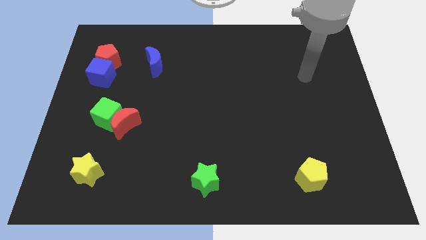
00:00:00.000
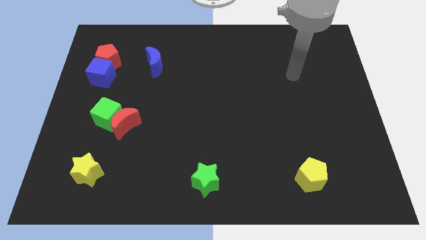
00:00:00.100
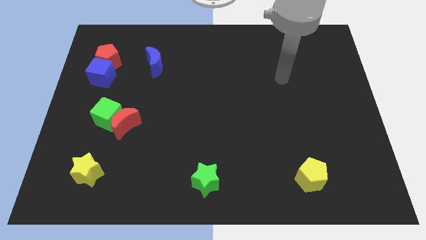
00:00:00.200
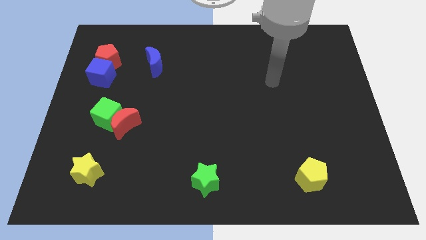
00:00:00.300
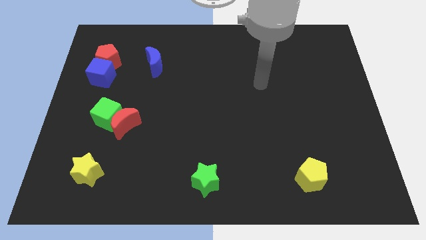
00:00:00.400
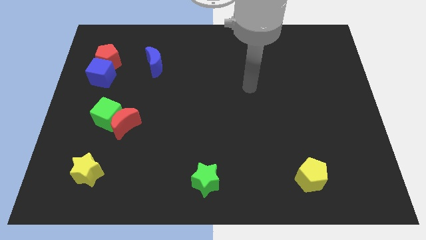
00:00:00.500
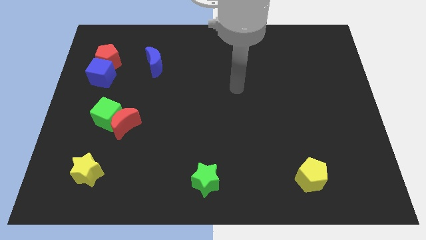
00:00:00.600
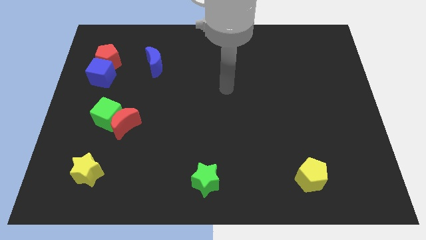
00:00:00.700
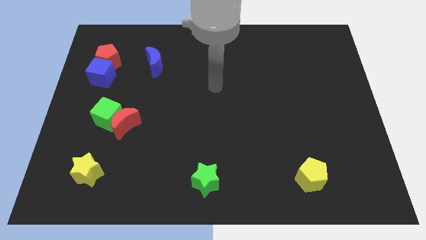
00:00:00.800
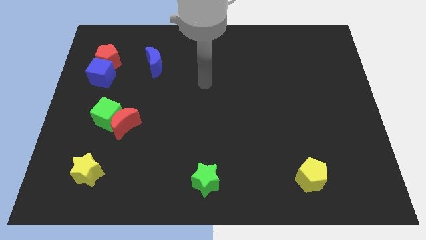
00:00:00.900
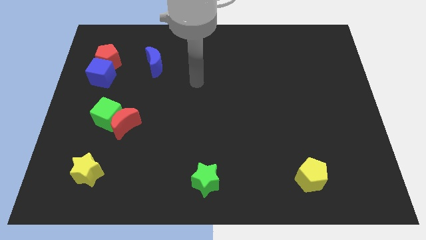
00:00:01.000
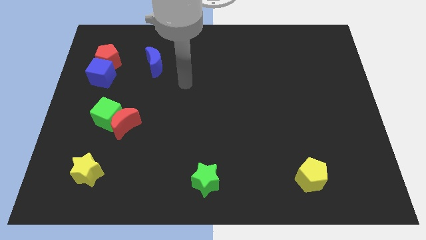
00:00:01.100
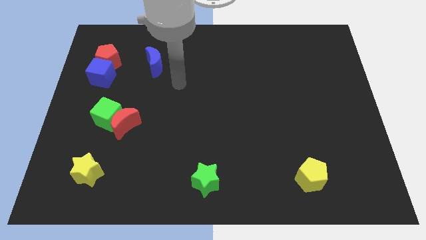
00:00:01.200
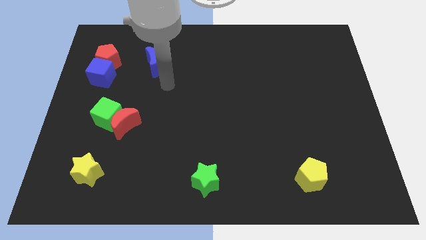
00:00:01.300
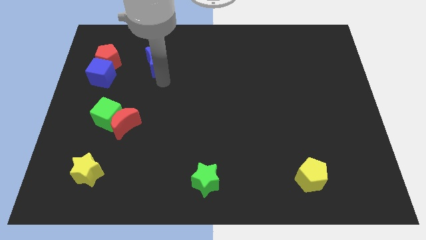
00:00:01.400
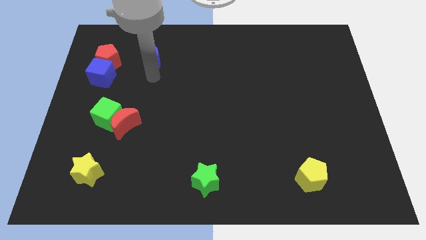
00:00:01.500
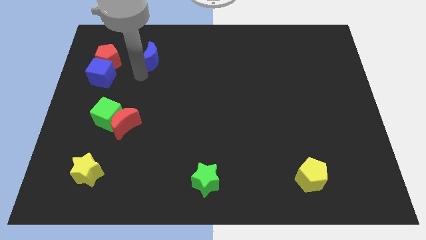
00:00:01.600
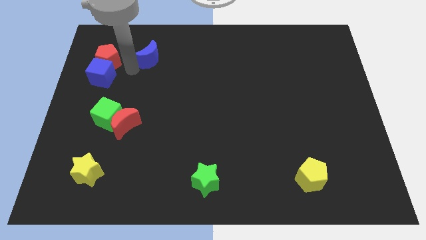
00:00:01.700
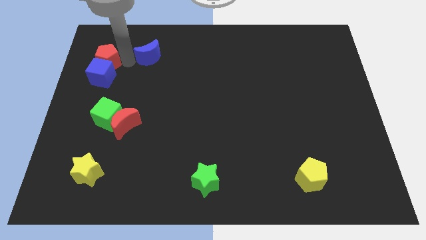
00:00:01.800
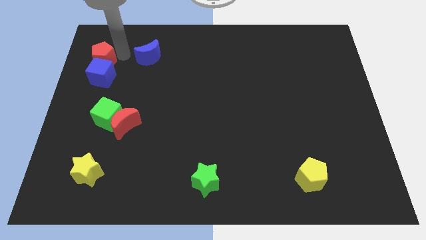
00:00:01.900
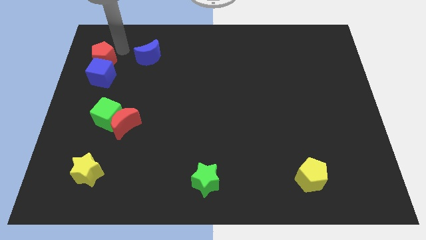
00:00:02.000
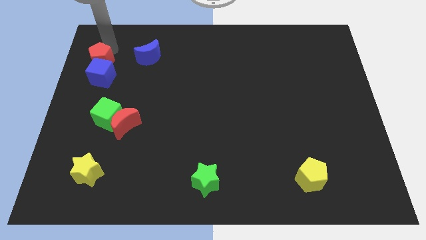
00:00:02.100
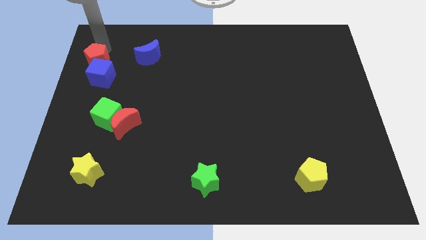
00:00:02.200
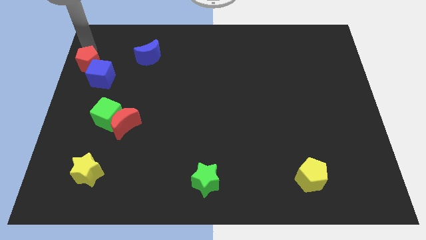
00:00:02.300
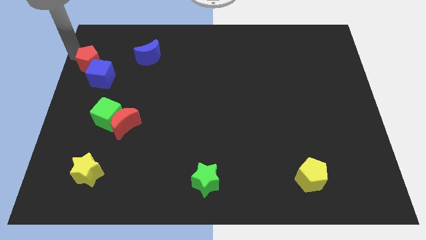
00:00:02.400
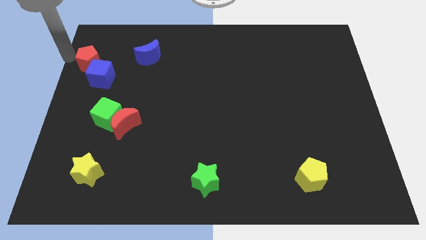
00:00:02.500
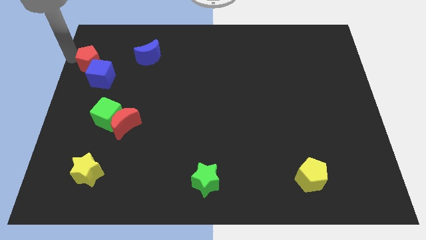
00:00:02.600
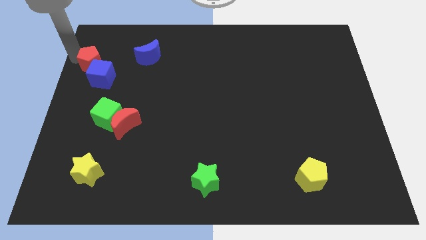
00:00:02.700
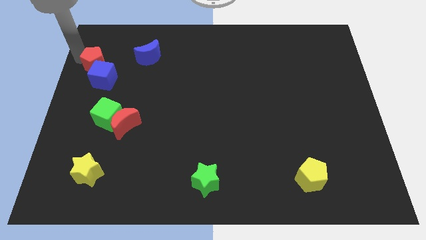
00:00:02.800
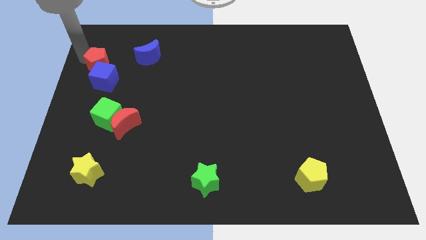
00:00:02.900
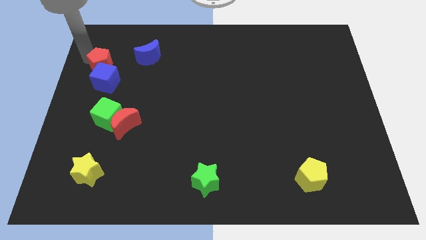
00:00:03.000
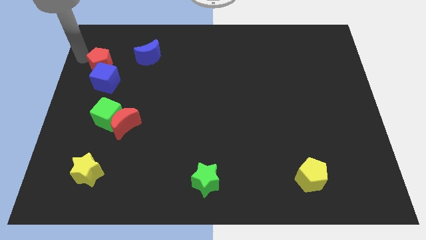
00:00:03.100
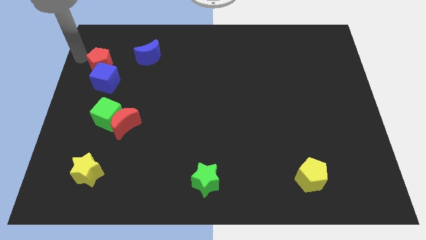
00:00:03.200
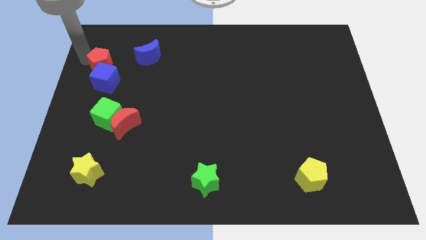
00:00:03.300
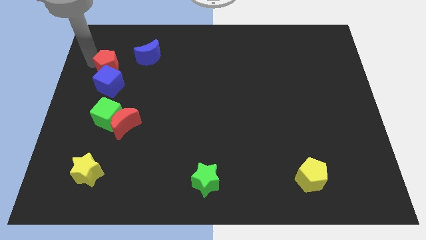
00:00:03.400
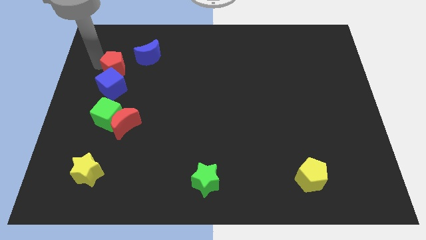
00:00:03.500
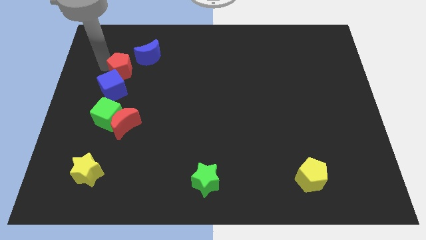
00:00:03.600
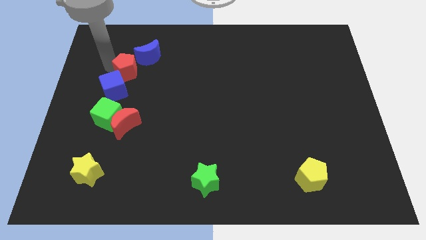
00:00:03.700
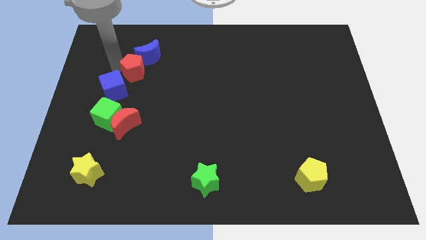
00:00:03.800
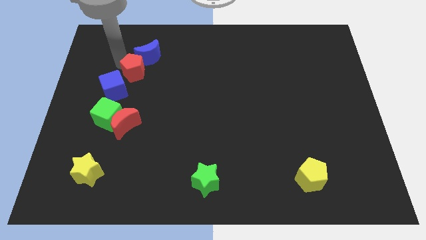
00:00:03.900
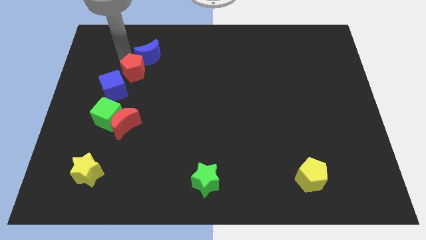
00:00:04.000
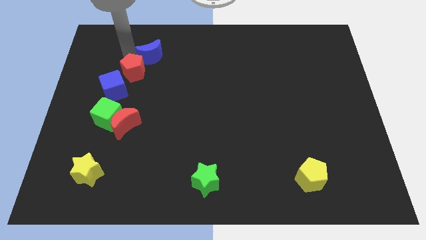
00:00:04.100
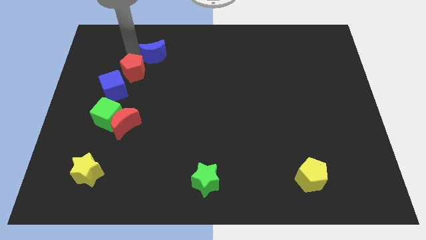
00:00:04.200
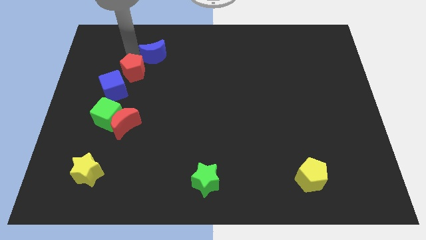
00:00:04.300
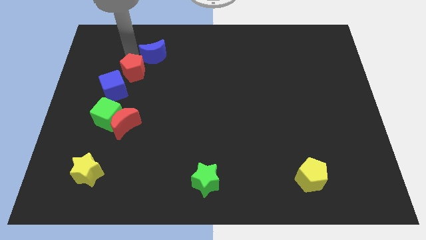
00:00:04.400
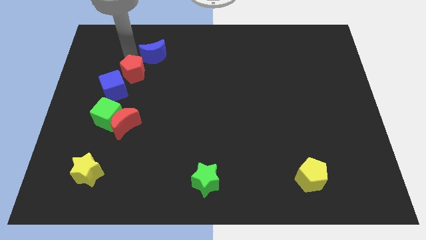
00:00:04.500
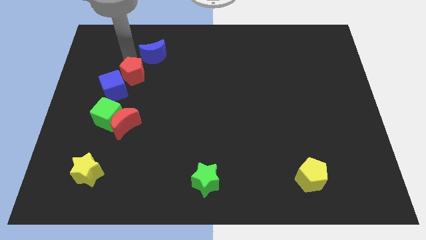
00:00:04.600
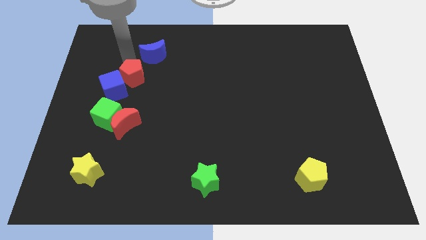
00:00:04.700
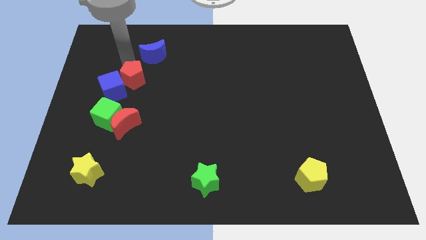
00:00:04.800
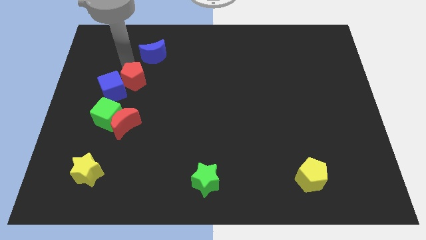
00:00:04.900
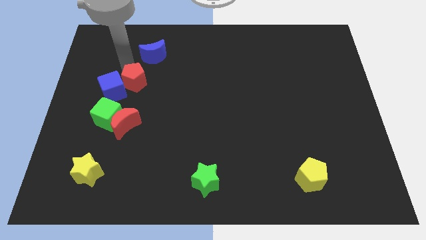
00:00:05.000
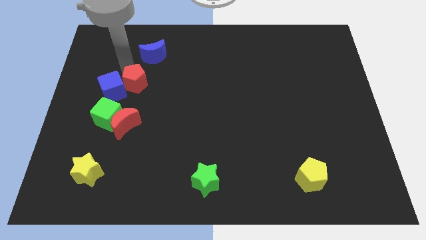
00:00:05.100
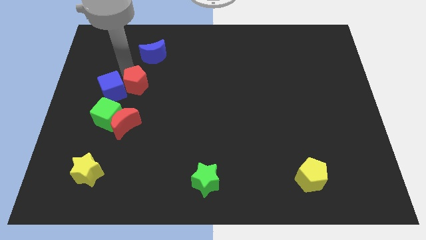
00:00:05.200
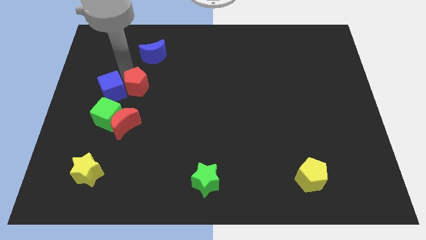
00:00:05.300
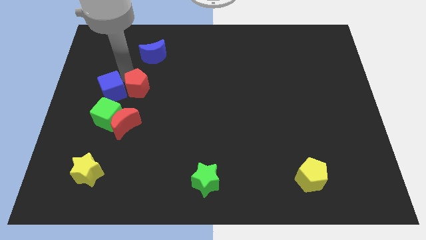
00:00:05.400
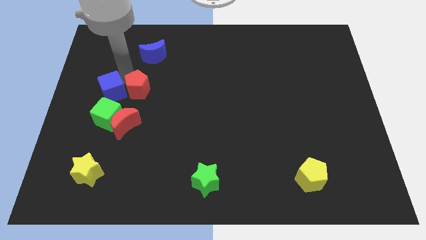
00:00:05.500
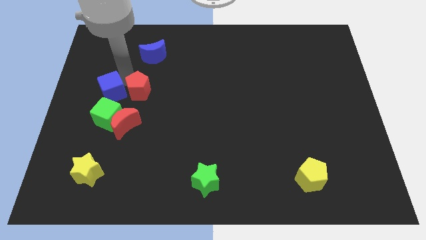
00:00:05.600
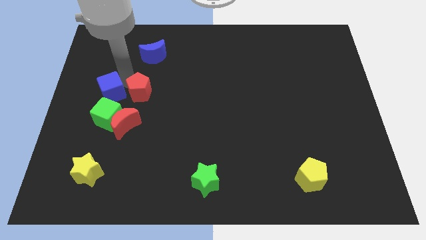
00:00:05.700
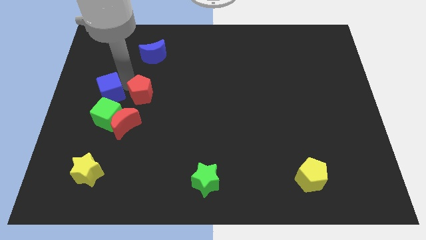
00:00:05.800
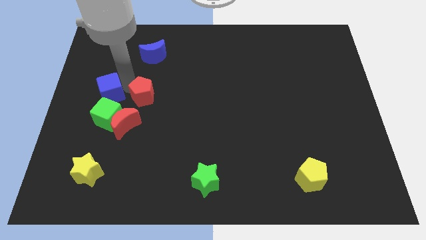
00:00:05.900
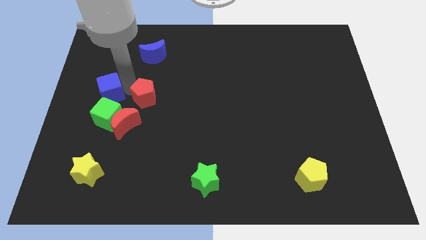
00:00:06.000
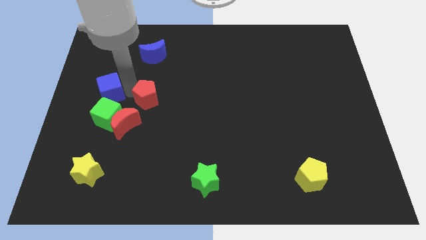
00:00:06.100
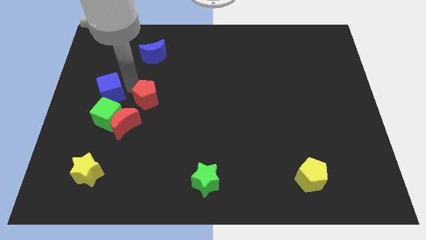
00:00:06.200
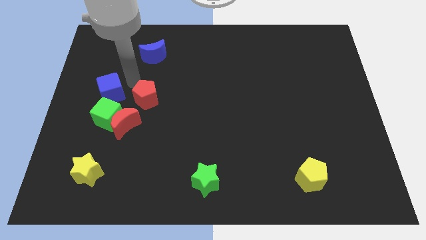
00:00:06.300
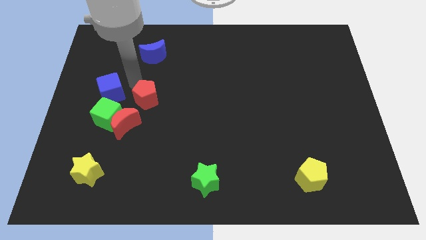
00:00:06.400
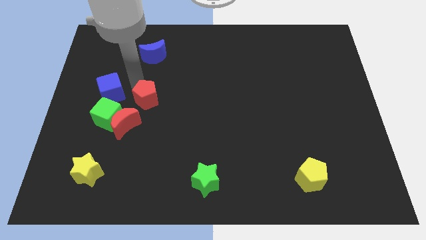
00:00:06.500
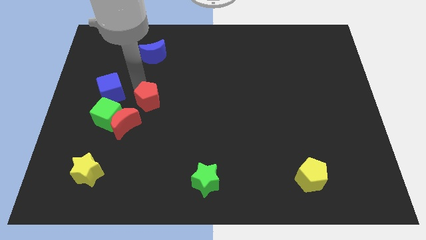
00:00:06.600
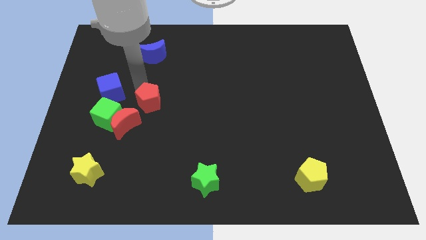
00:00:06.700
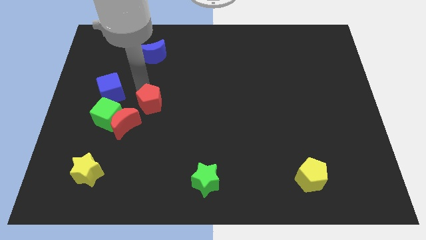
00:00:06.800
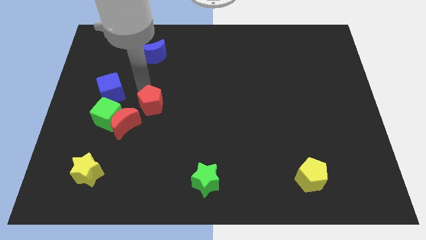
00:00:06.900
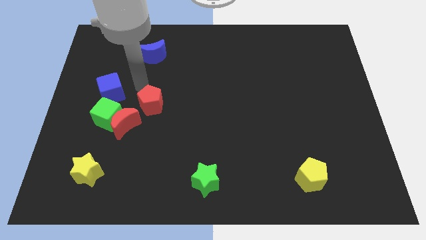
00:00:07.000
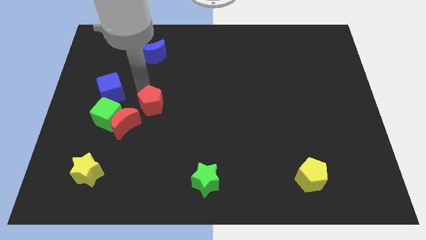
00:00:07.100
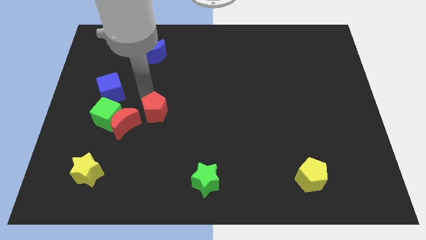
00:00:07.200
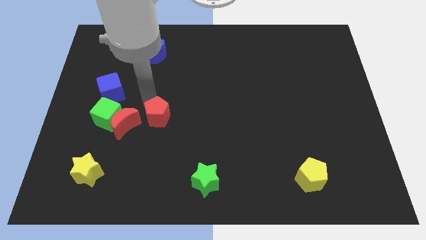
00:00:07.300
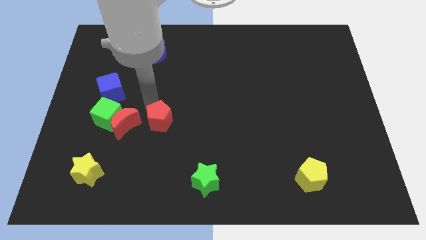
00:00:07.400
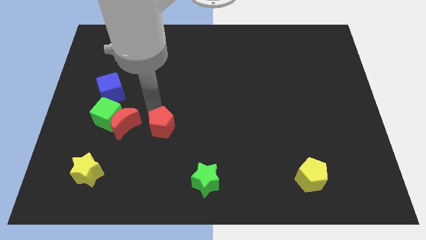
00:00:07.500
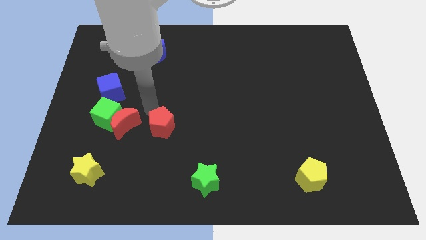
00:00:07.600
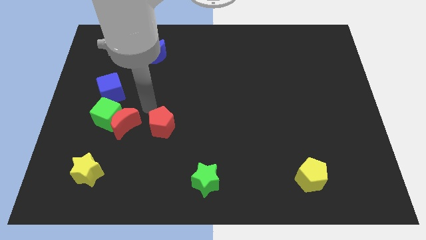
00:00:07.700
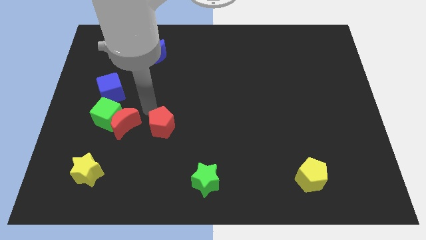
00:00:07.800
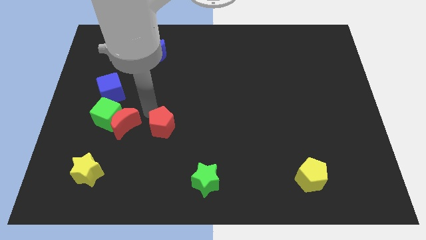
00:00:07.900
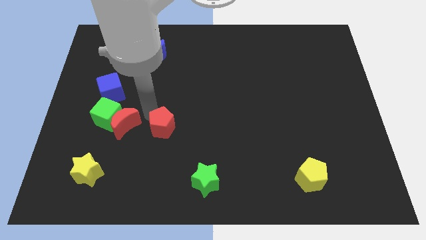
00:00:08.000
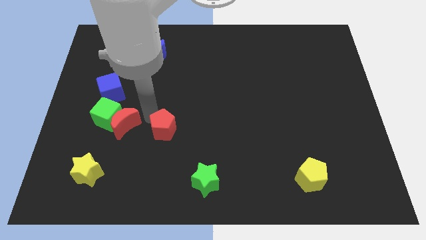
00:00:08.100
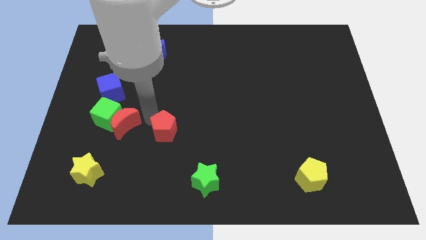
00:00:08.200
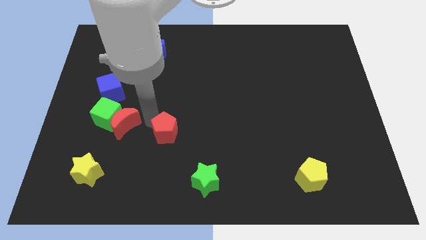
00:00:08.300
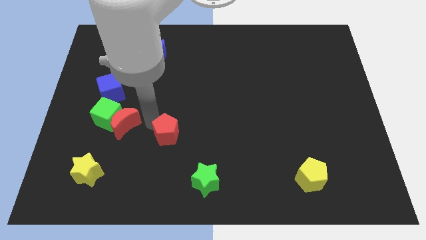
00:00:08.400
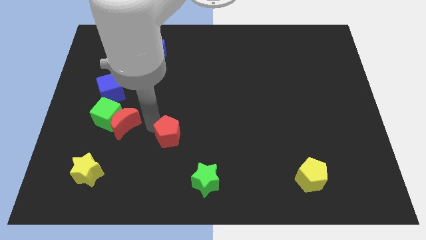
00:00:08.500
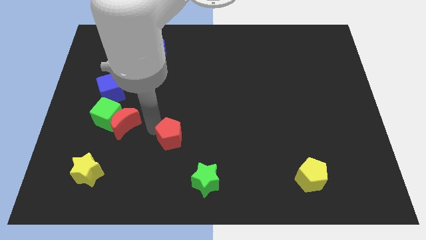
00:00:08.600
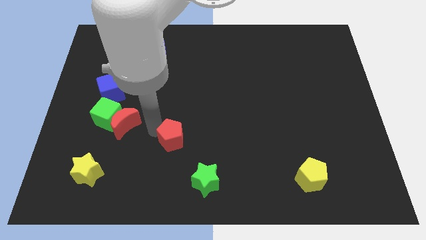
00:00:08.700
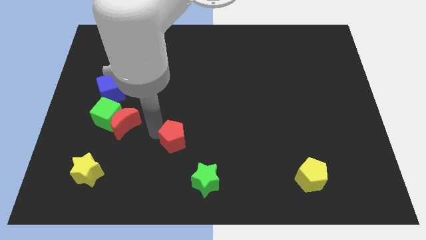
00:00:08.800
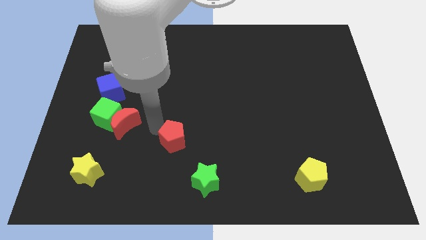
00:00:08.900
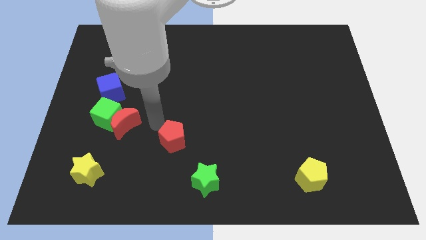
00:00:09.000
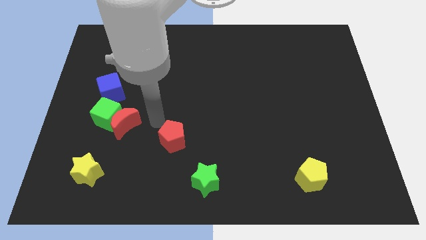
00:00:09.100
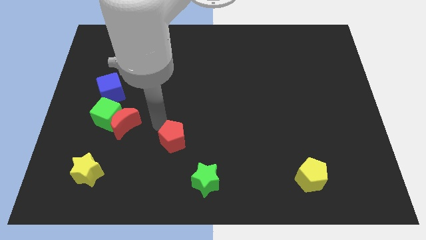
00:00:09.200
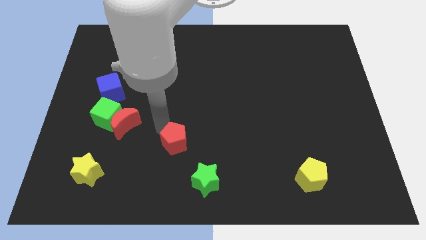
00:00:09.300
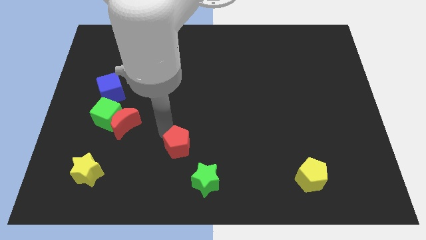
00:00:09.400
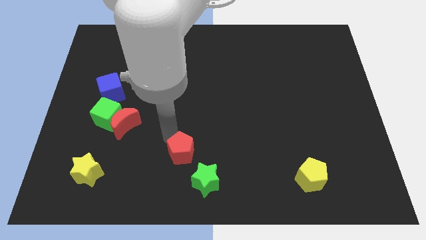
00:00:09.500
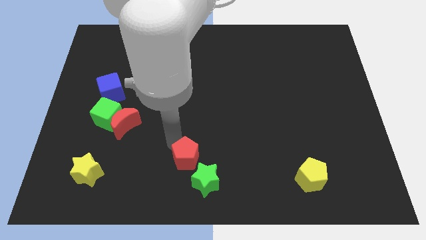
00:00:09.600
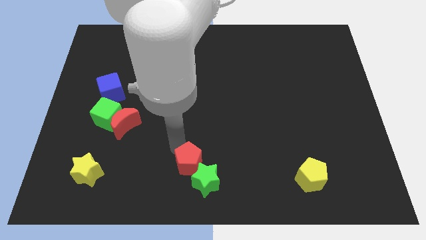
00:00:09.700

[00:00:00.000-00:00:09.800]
put the red pentagon close to the green star
